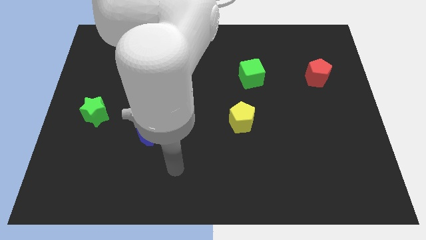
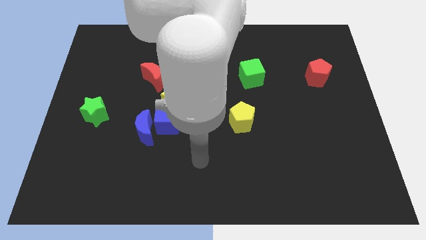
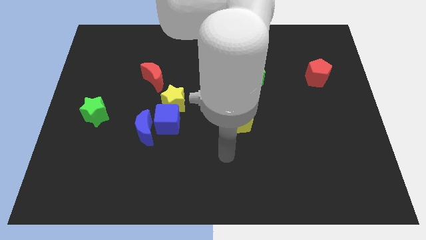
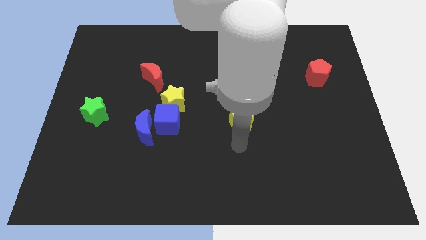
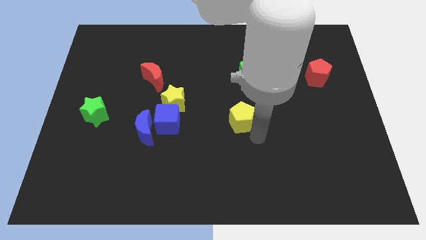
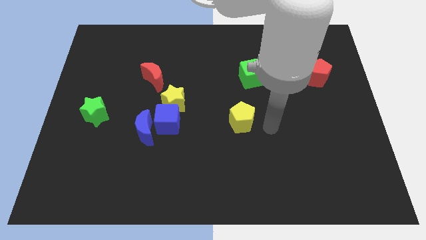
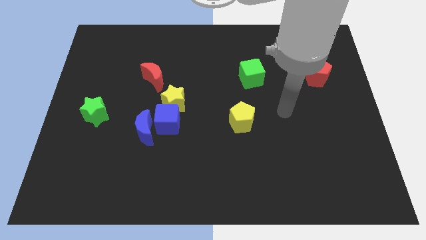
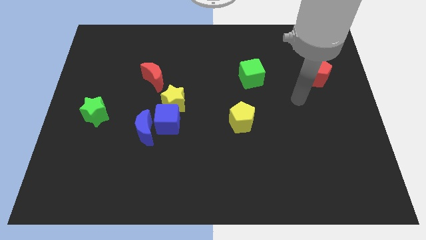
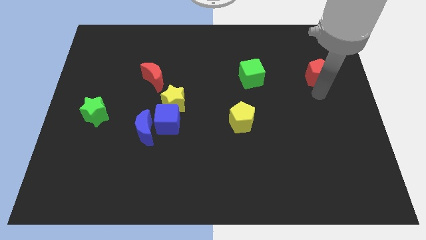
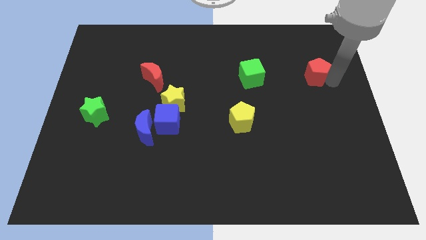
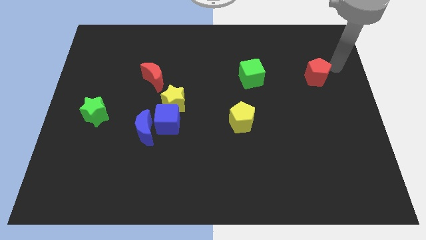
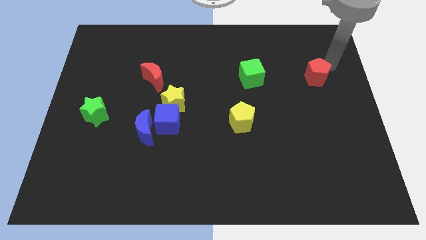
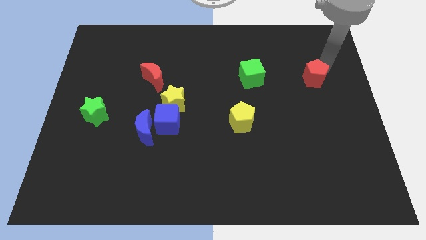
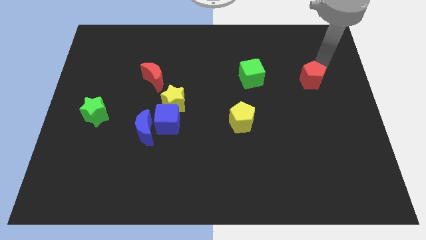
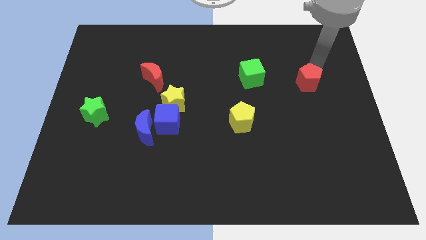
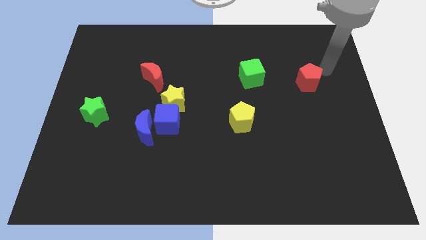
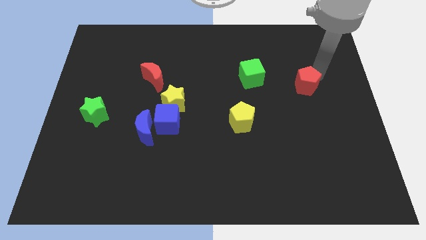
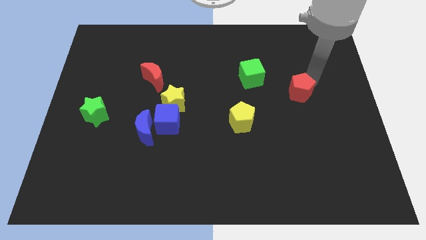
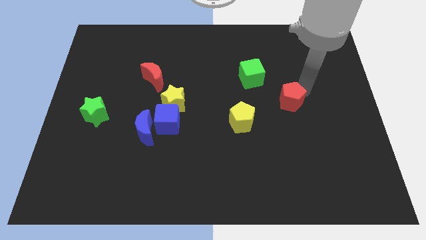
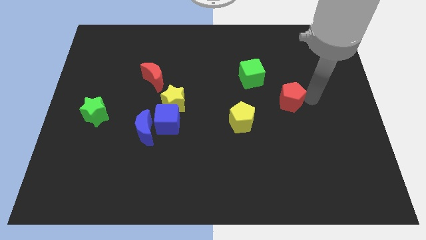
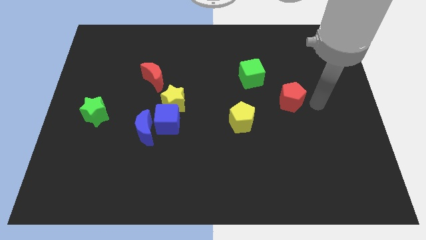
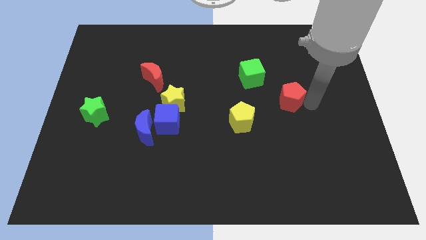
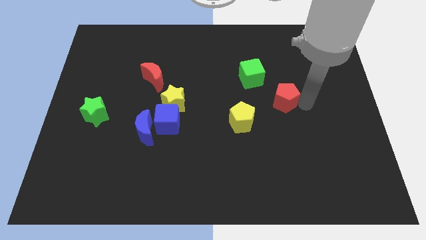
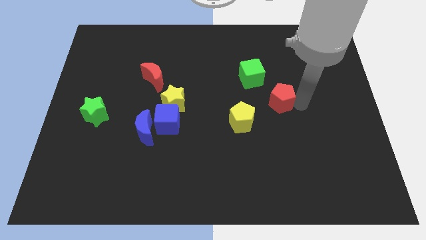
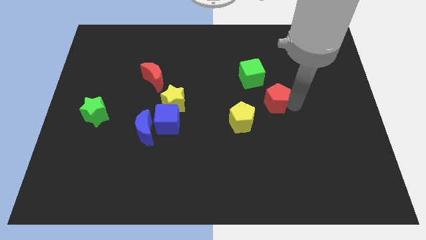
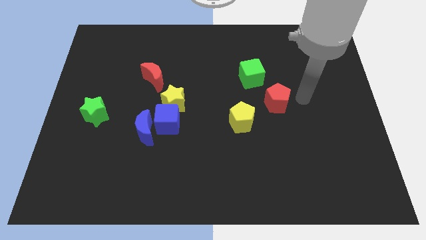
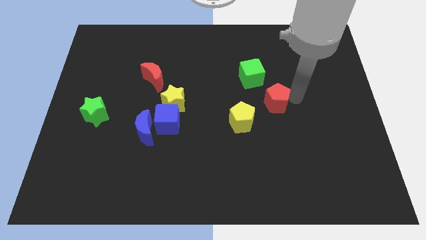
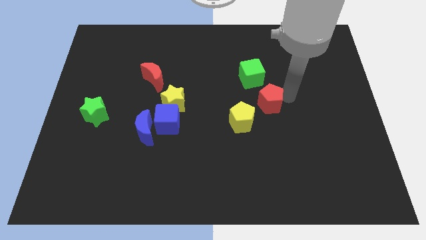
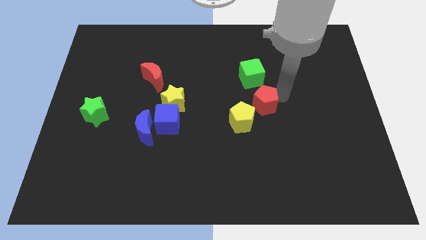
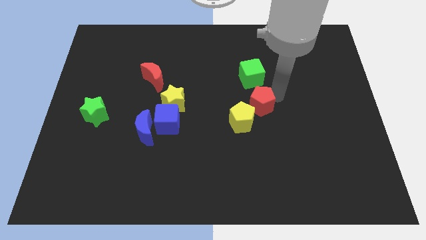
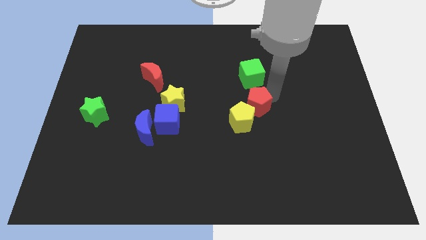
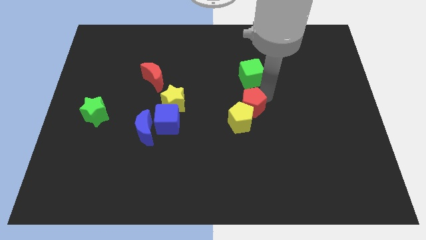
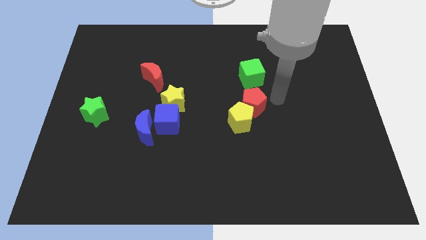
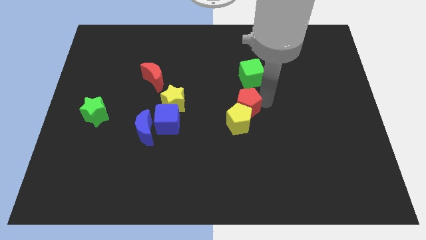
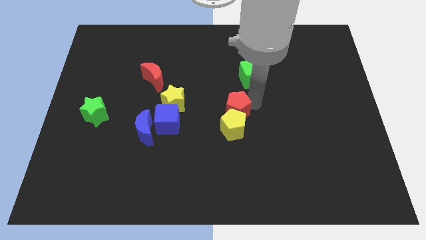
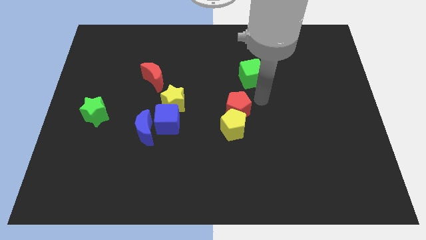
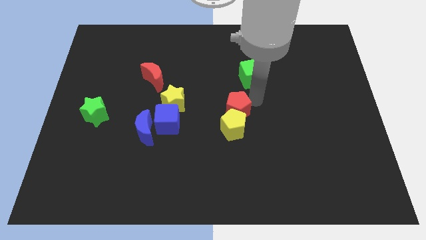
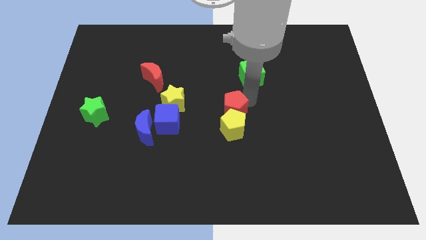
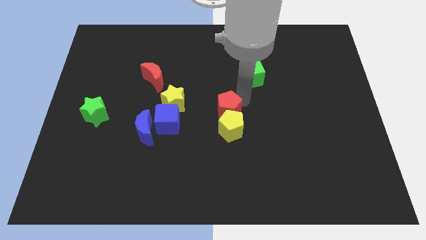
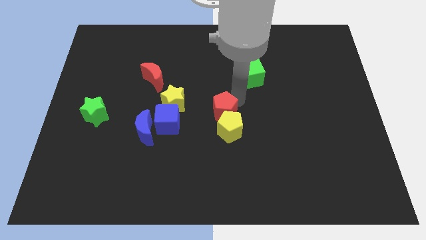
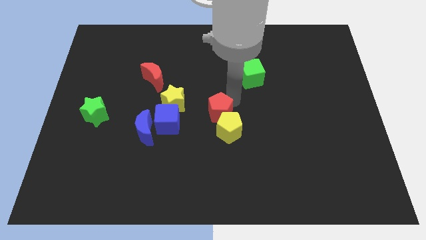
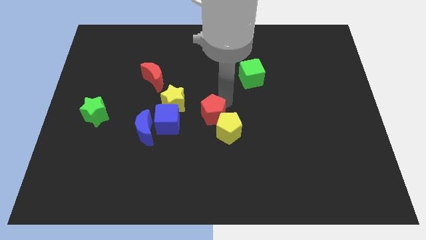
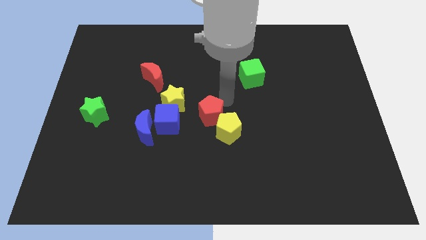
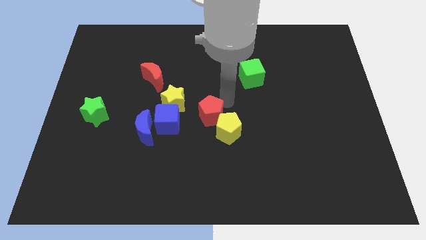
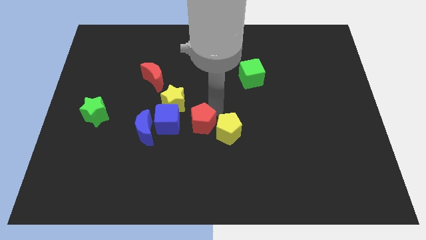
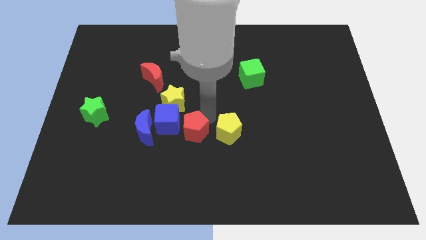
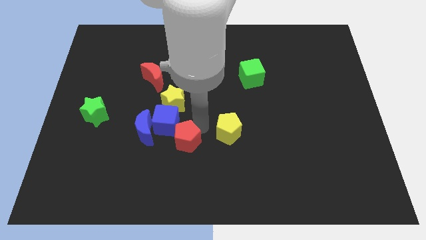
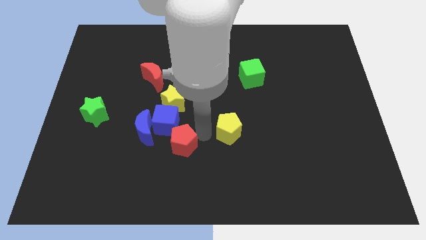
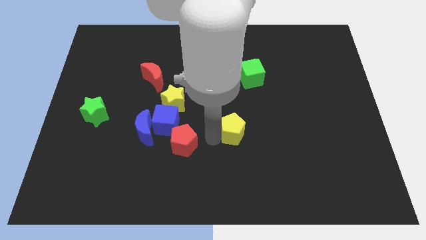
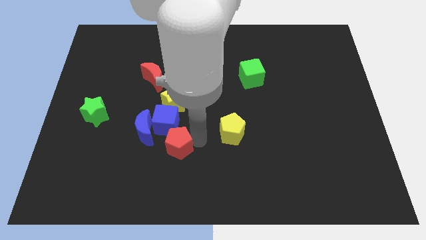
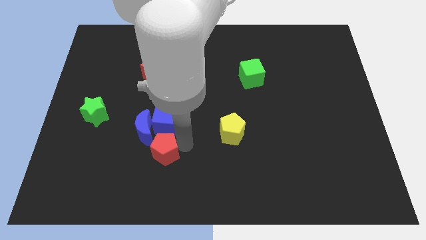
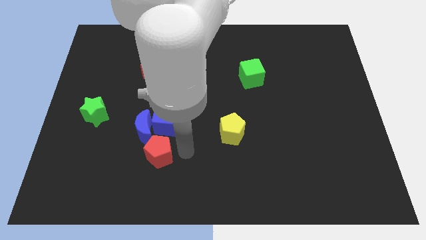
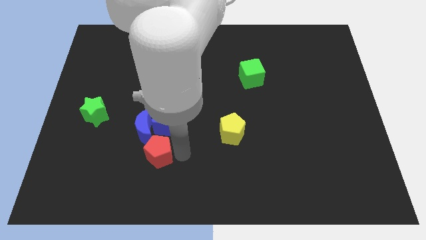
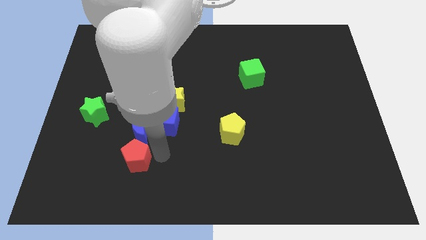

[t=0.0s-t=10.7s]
move the red pentagon to the bottom left side of the blue moon
